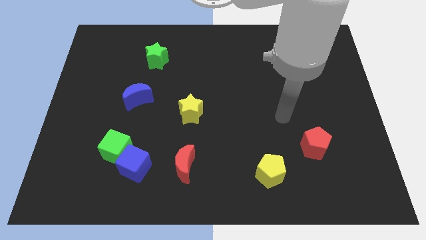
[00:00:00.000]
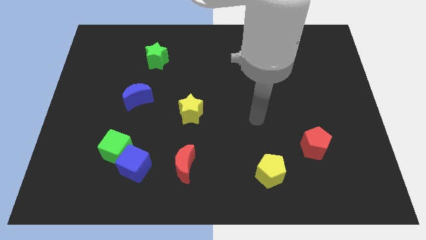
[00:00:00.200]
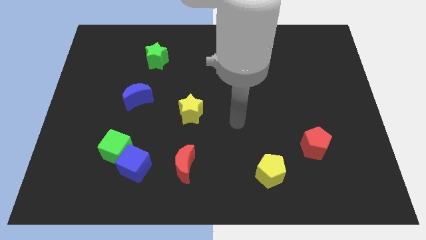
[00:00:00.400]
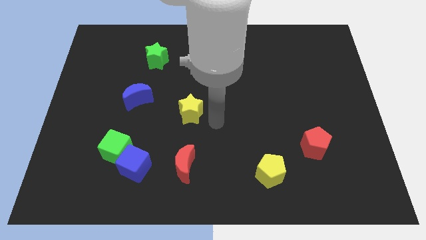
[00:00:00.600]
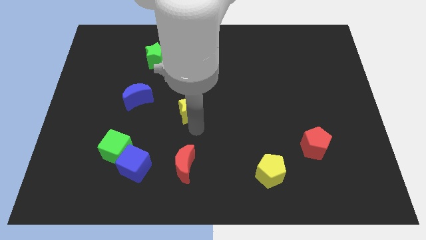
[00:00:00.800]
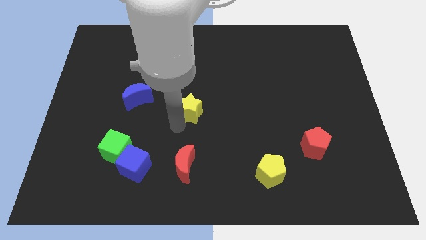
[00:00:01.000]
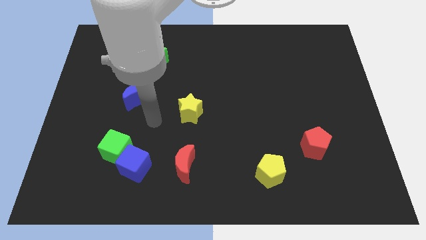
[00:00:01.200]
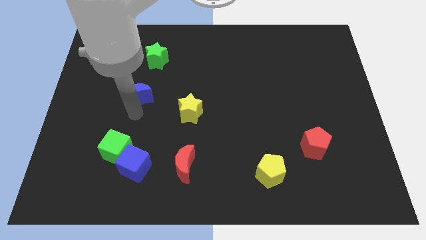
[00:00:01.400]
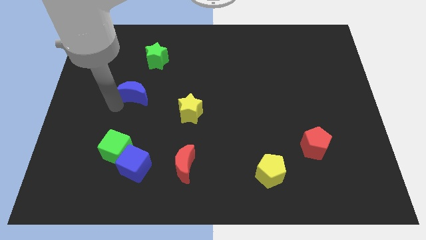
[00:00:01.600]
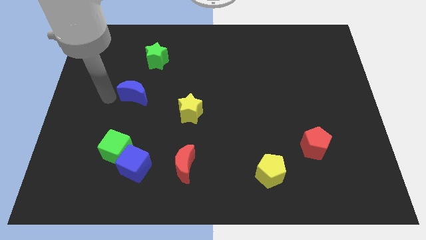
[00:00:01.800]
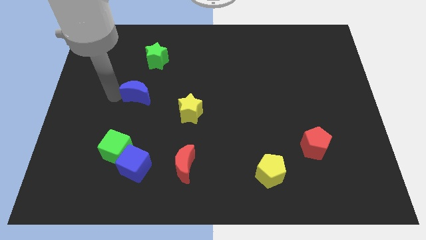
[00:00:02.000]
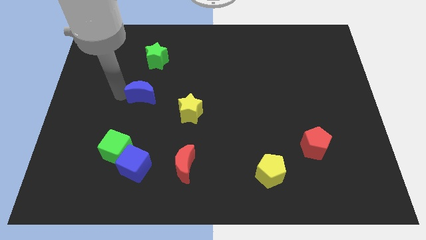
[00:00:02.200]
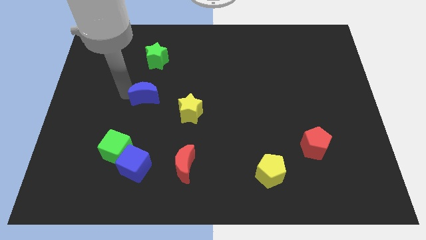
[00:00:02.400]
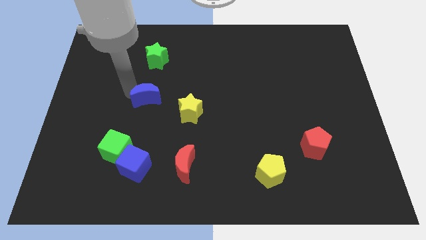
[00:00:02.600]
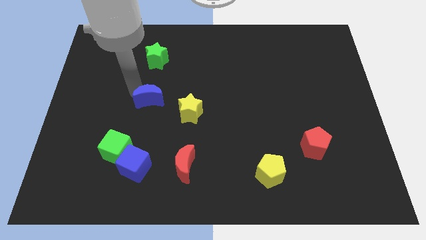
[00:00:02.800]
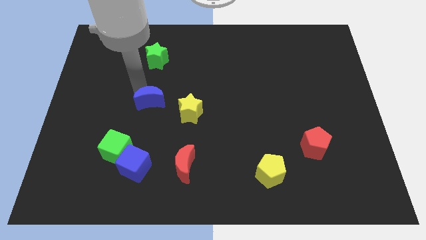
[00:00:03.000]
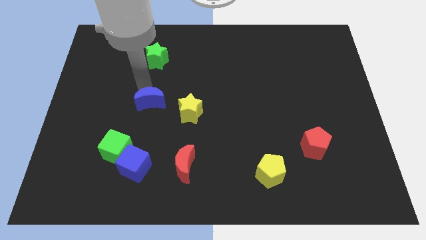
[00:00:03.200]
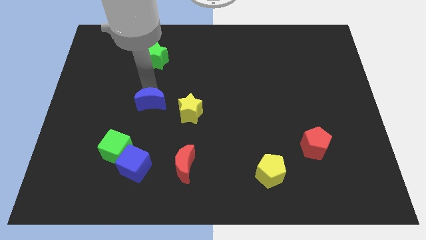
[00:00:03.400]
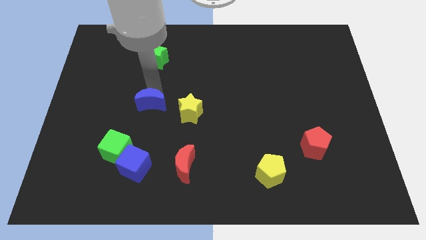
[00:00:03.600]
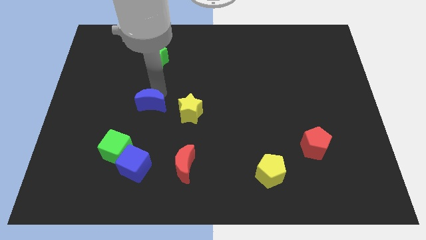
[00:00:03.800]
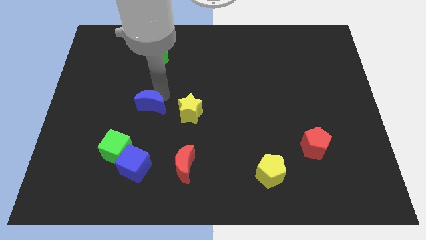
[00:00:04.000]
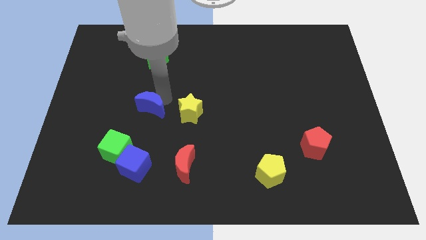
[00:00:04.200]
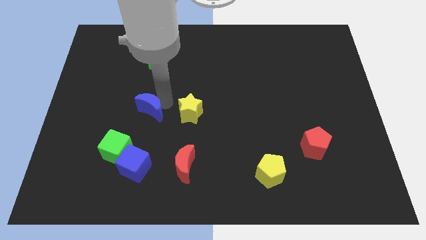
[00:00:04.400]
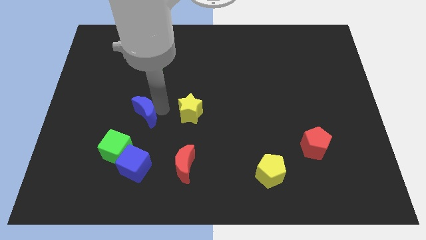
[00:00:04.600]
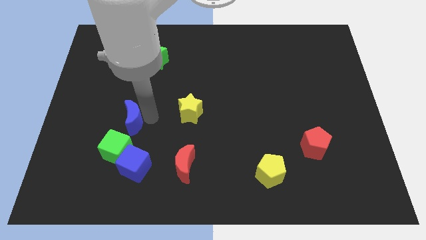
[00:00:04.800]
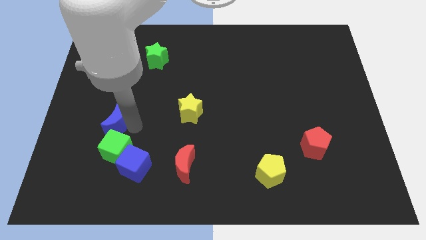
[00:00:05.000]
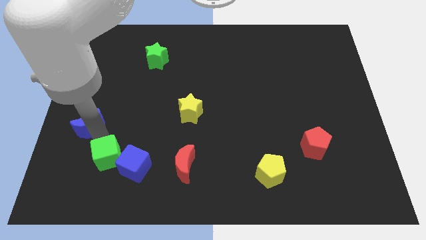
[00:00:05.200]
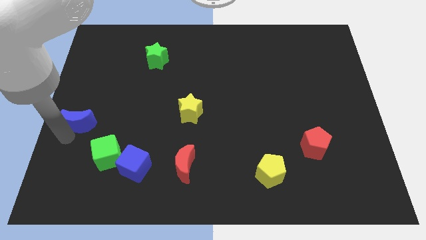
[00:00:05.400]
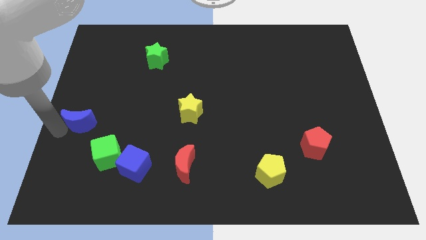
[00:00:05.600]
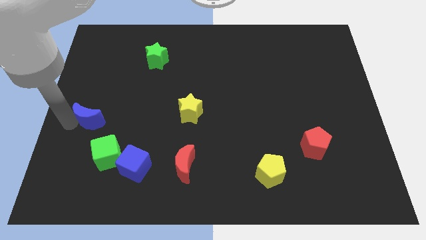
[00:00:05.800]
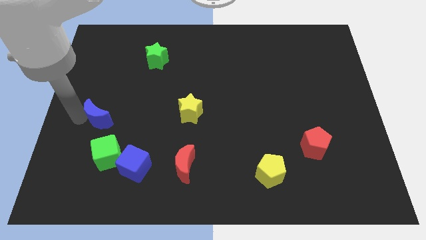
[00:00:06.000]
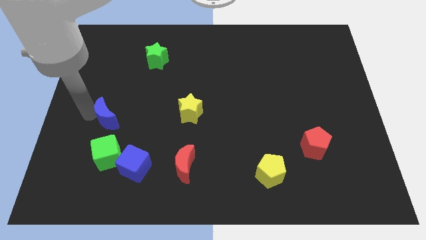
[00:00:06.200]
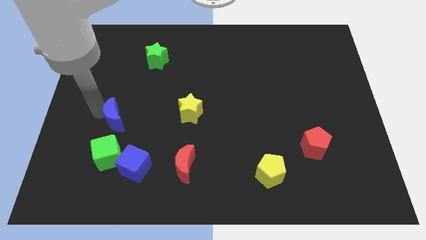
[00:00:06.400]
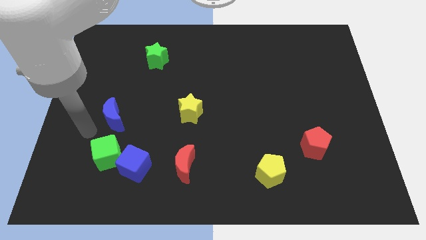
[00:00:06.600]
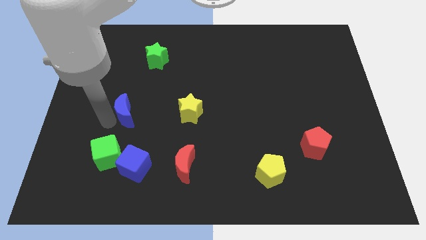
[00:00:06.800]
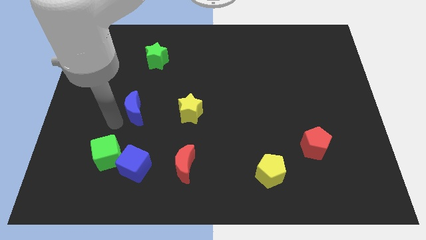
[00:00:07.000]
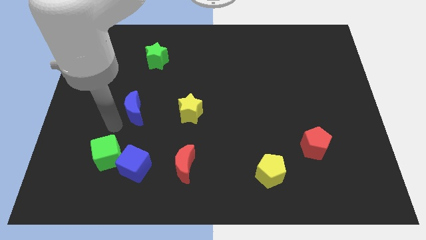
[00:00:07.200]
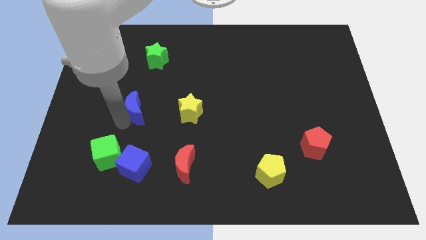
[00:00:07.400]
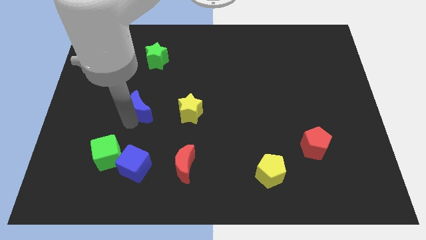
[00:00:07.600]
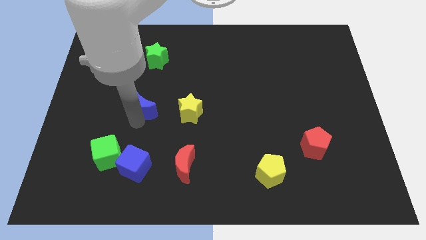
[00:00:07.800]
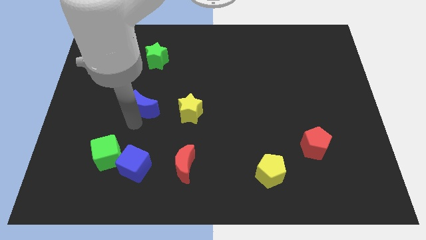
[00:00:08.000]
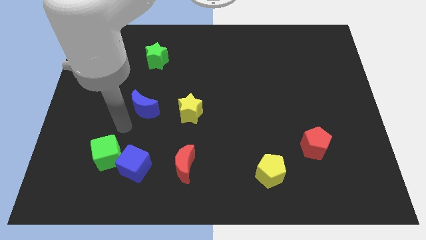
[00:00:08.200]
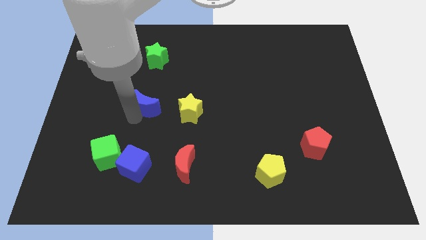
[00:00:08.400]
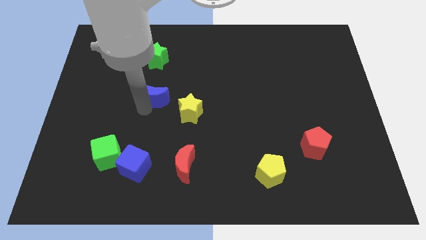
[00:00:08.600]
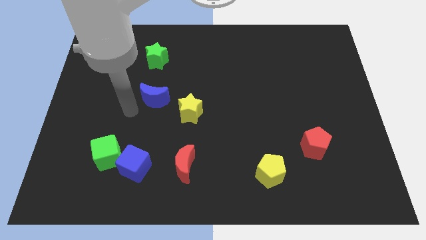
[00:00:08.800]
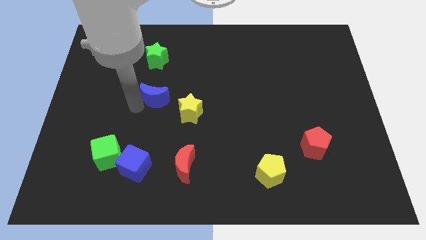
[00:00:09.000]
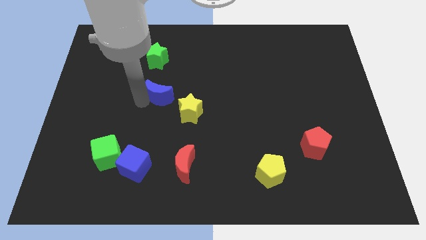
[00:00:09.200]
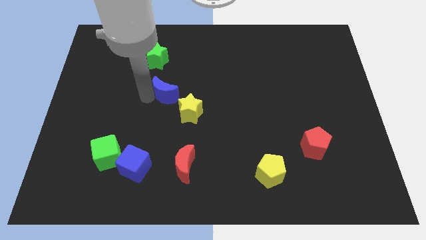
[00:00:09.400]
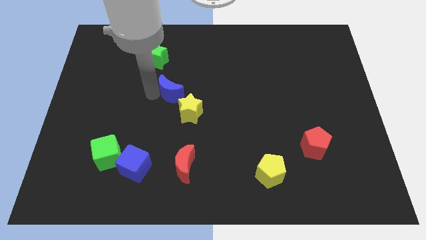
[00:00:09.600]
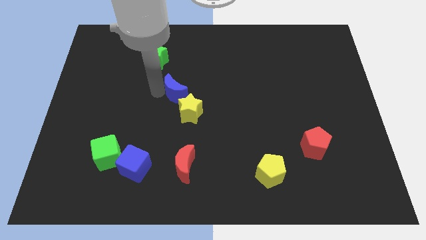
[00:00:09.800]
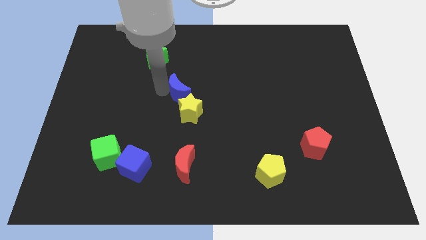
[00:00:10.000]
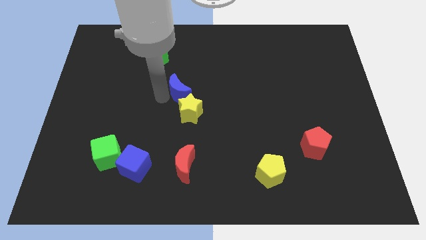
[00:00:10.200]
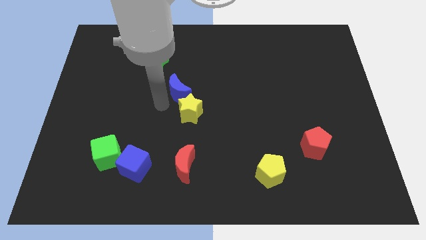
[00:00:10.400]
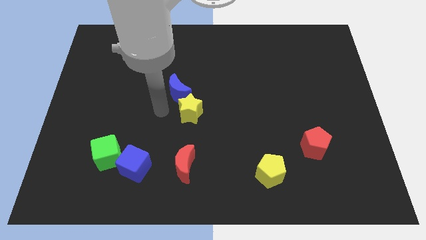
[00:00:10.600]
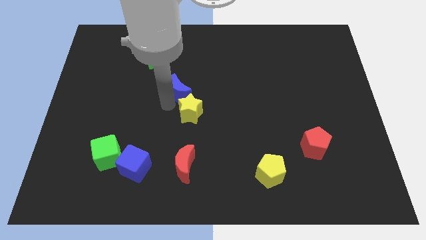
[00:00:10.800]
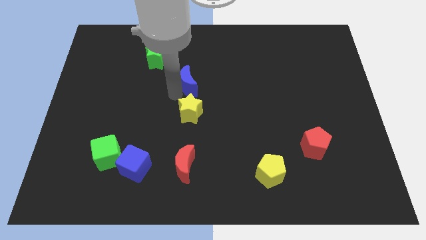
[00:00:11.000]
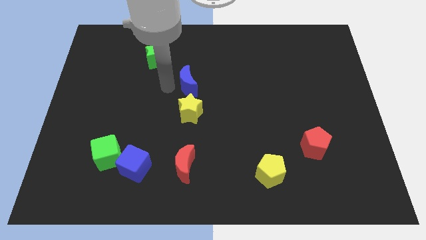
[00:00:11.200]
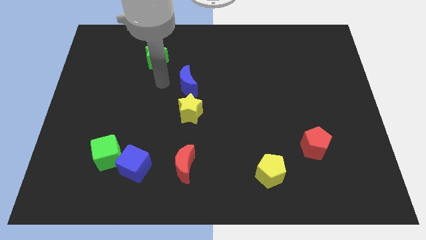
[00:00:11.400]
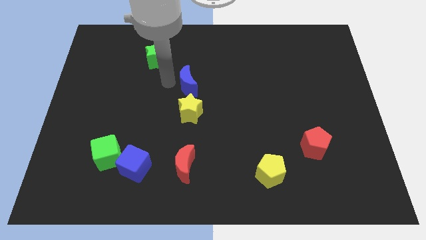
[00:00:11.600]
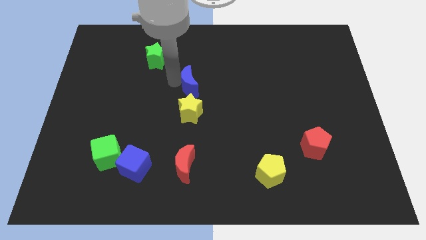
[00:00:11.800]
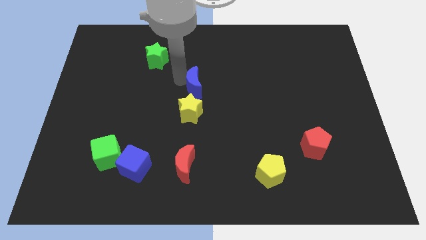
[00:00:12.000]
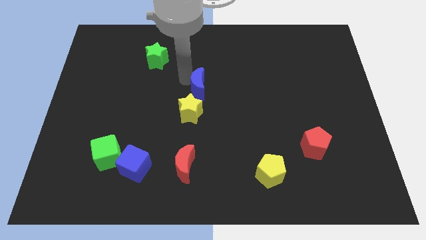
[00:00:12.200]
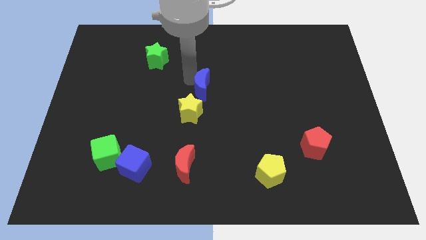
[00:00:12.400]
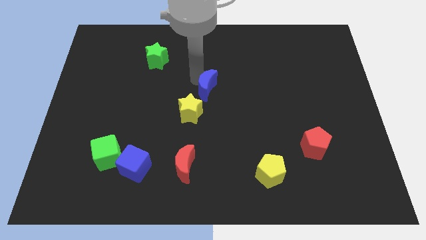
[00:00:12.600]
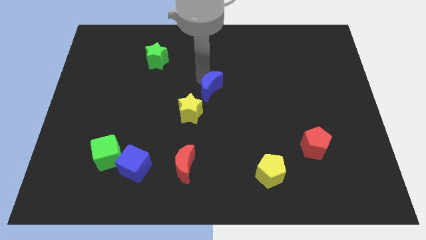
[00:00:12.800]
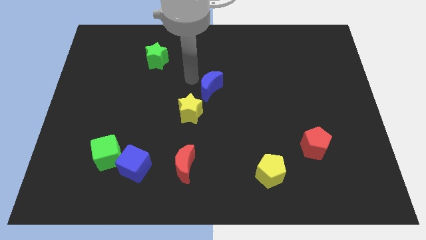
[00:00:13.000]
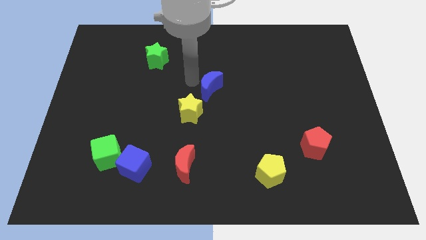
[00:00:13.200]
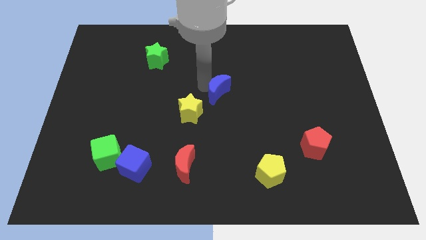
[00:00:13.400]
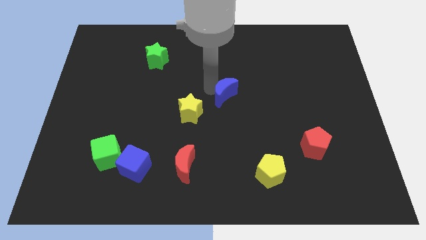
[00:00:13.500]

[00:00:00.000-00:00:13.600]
move the blue moon to the right

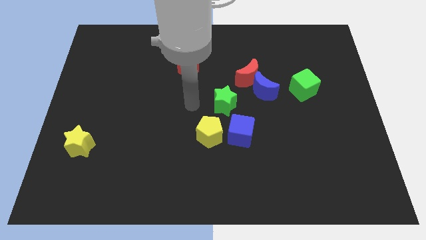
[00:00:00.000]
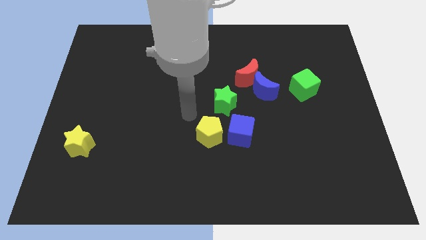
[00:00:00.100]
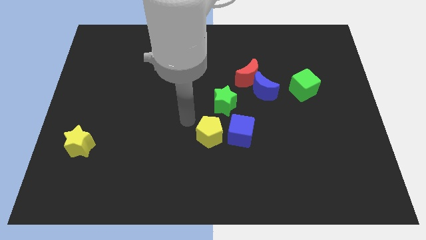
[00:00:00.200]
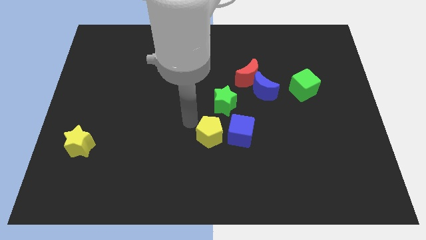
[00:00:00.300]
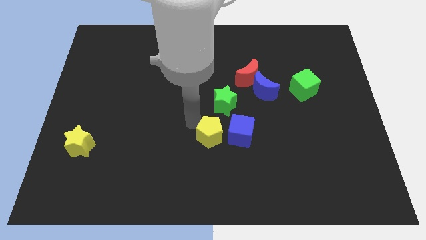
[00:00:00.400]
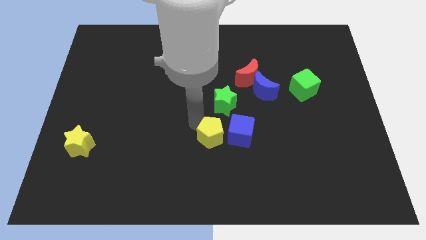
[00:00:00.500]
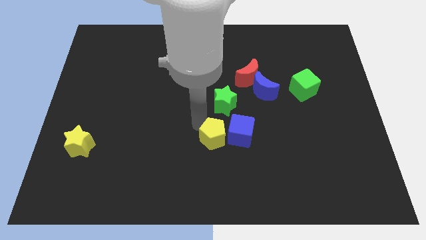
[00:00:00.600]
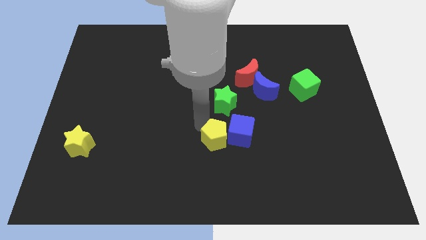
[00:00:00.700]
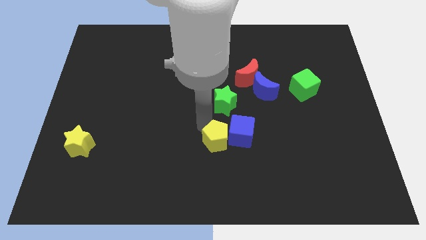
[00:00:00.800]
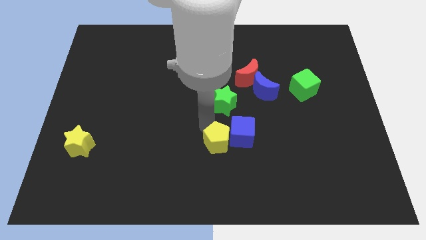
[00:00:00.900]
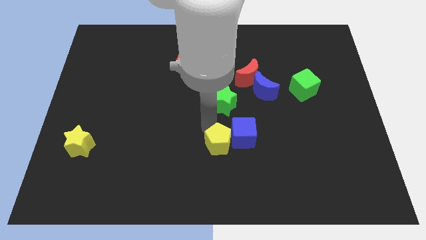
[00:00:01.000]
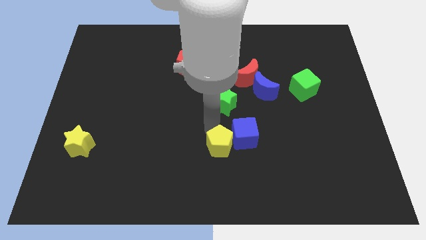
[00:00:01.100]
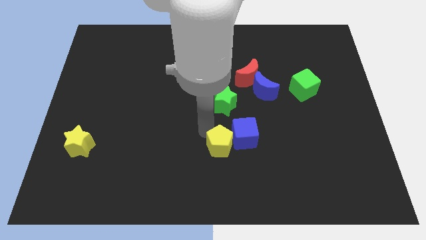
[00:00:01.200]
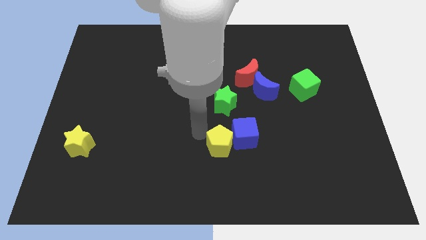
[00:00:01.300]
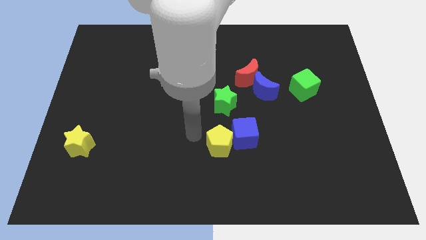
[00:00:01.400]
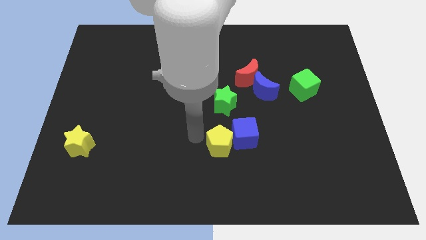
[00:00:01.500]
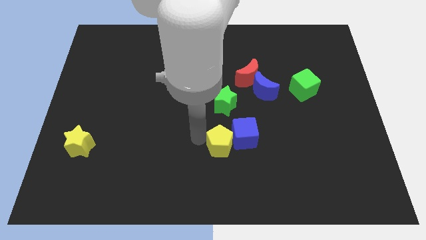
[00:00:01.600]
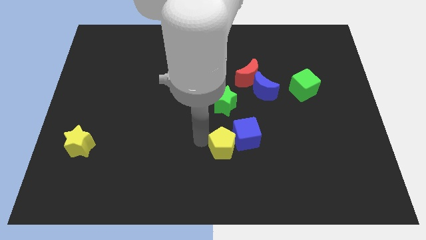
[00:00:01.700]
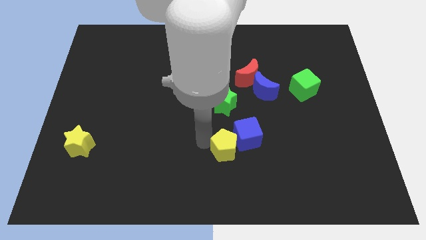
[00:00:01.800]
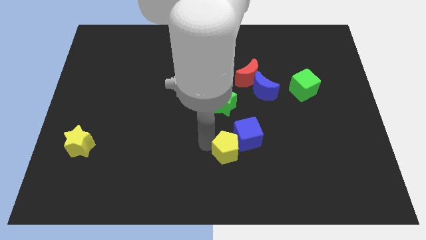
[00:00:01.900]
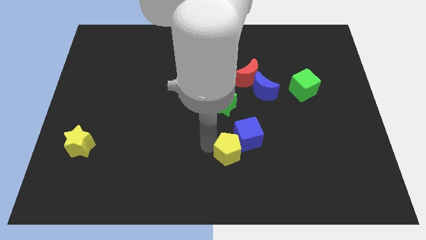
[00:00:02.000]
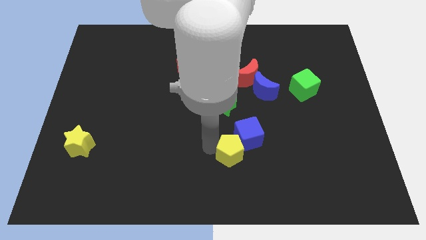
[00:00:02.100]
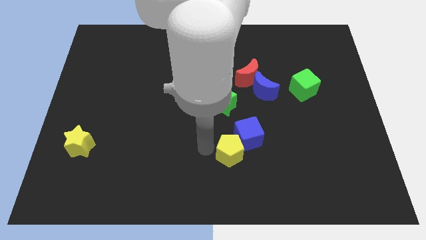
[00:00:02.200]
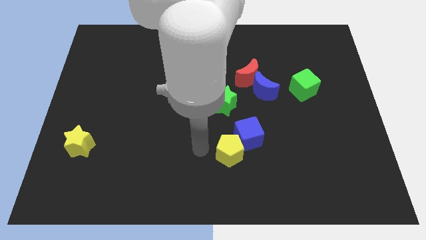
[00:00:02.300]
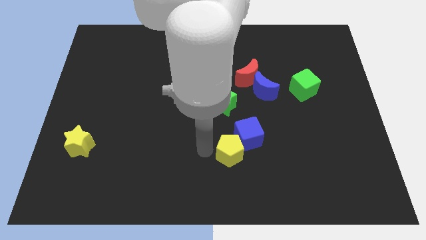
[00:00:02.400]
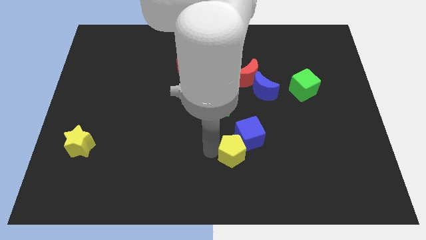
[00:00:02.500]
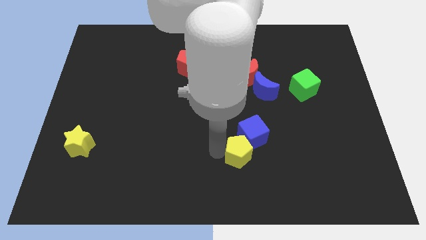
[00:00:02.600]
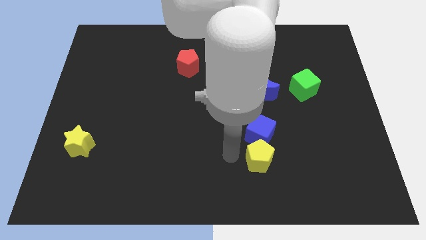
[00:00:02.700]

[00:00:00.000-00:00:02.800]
push the yellow pentagon to the right a little
